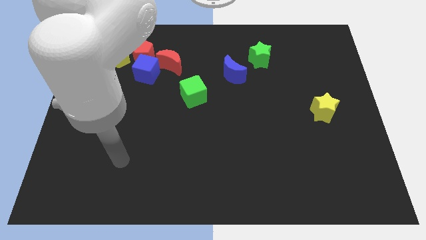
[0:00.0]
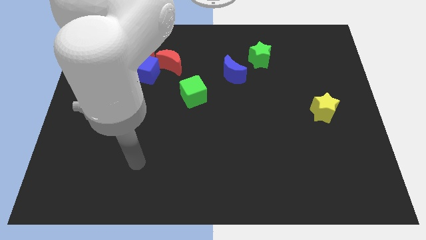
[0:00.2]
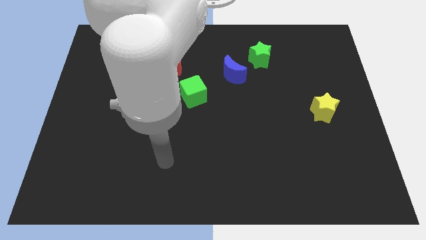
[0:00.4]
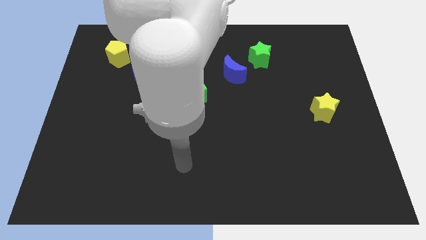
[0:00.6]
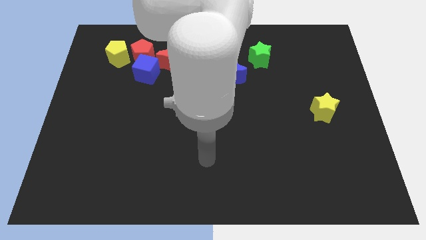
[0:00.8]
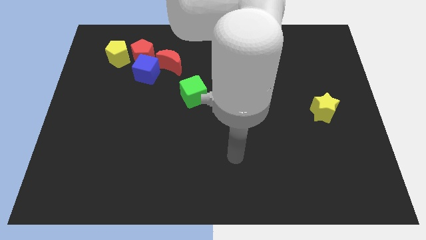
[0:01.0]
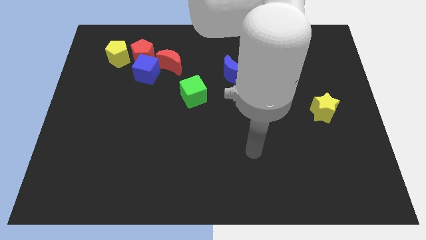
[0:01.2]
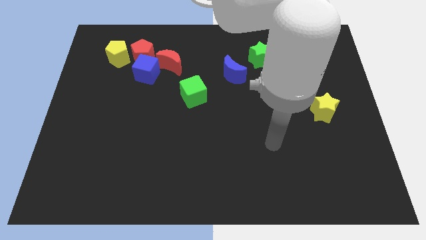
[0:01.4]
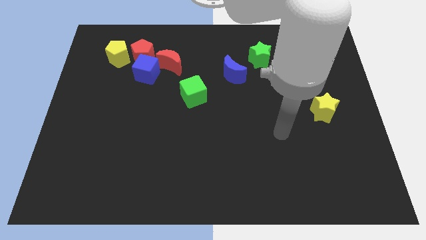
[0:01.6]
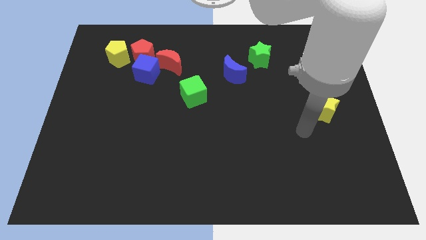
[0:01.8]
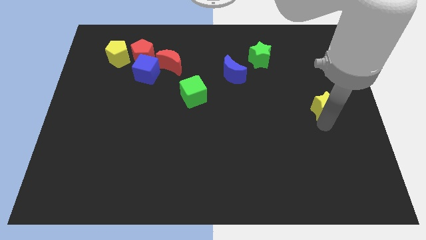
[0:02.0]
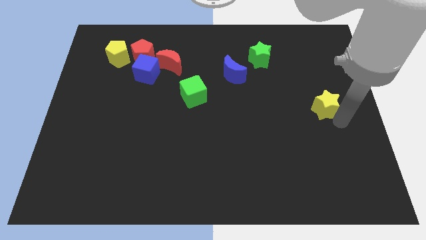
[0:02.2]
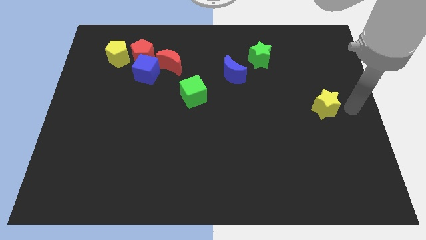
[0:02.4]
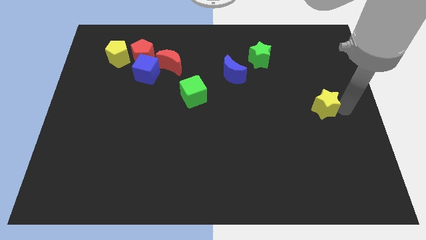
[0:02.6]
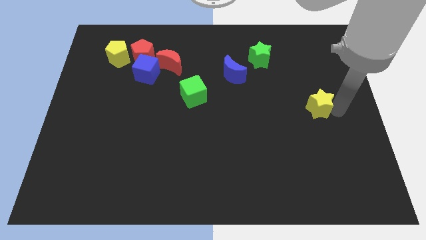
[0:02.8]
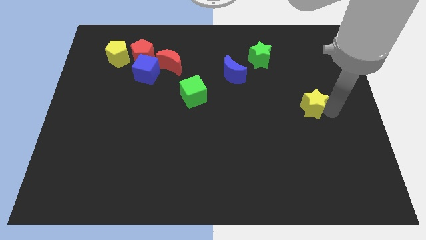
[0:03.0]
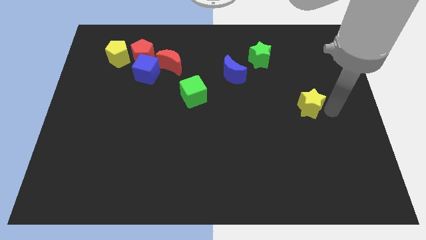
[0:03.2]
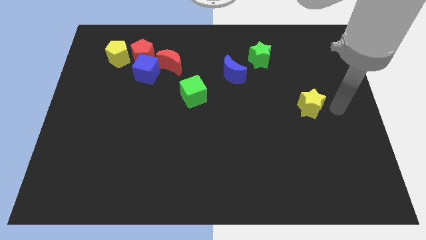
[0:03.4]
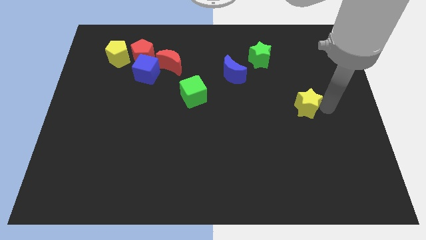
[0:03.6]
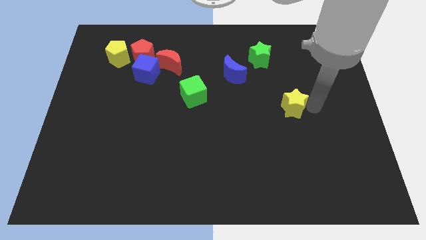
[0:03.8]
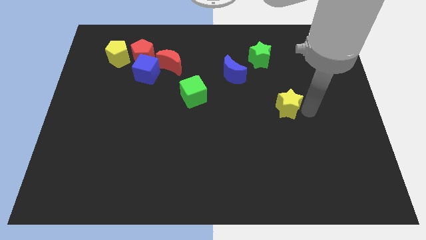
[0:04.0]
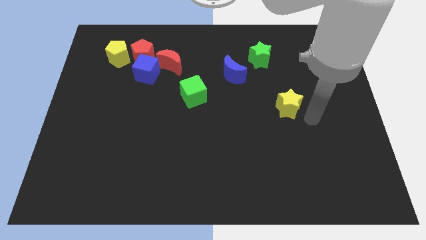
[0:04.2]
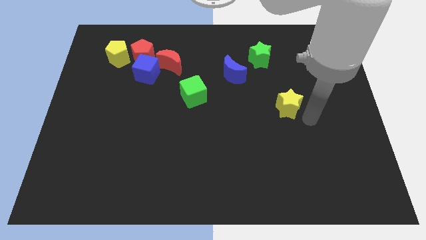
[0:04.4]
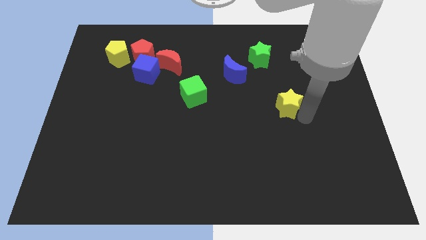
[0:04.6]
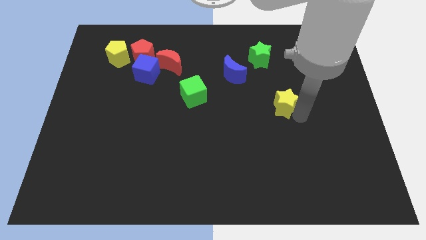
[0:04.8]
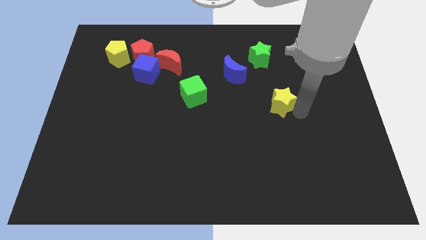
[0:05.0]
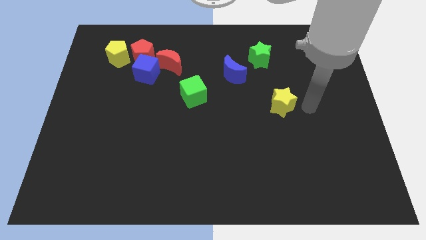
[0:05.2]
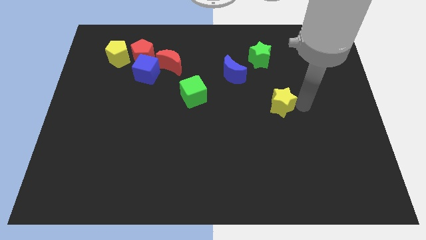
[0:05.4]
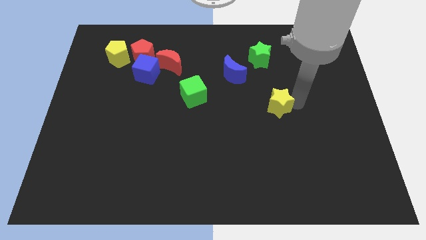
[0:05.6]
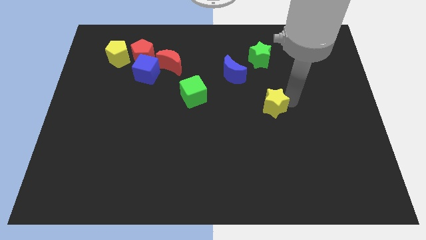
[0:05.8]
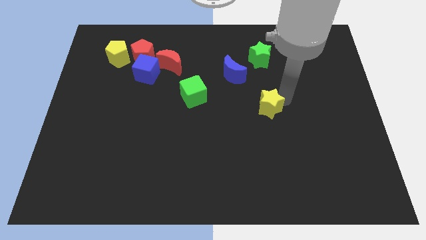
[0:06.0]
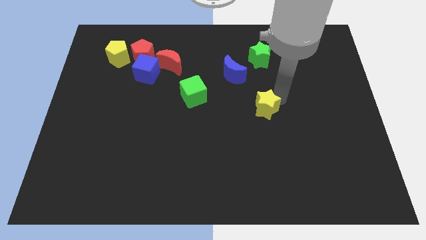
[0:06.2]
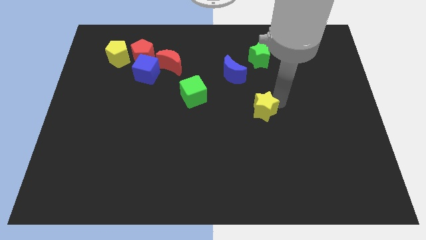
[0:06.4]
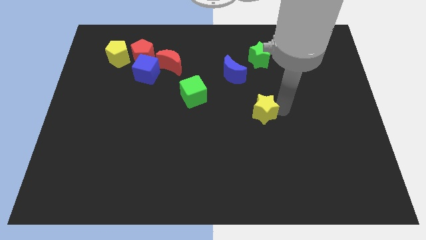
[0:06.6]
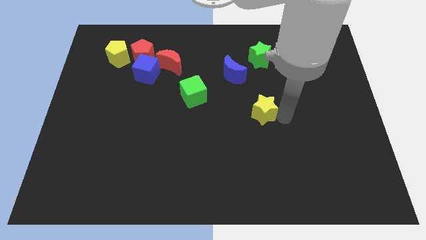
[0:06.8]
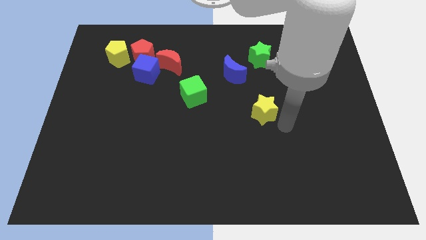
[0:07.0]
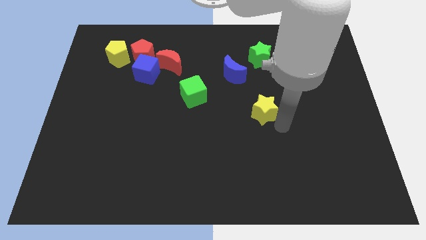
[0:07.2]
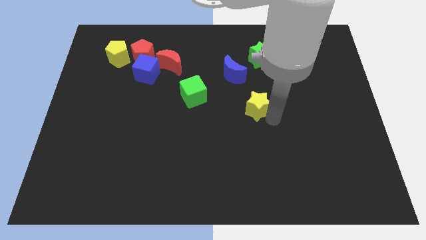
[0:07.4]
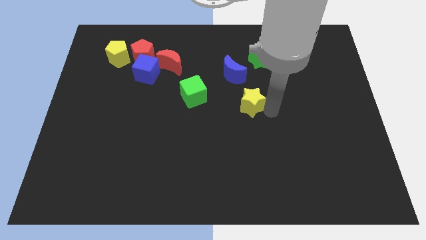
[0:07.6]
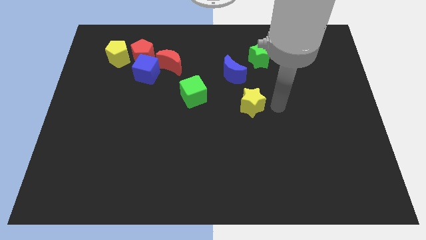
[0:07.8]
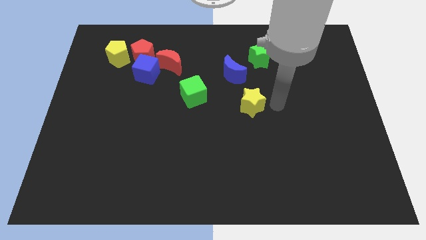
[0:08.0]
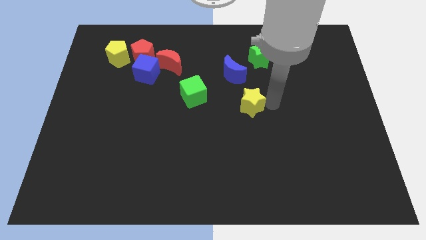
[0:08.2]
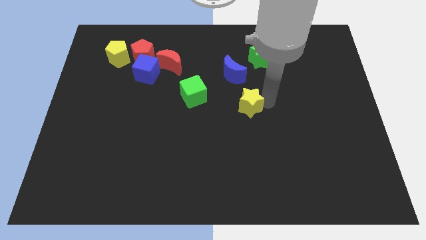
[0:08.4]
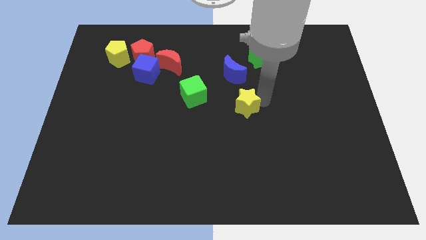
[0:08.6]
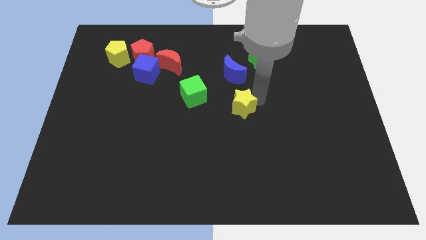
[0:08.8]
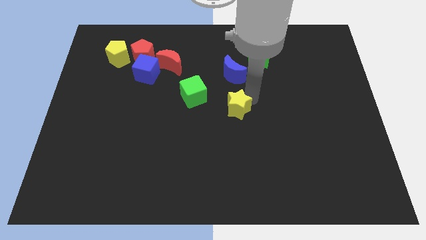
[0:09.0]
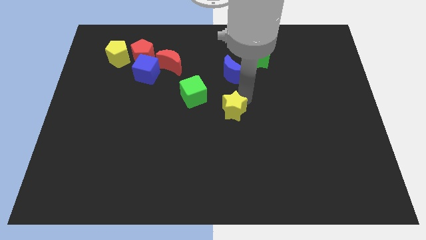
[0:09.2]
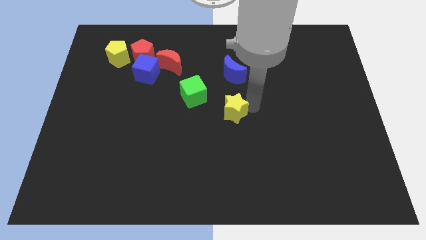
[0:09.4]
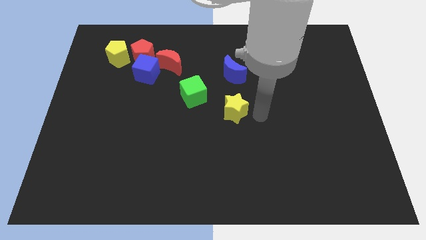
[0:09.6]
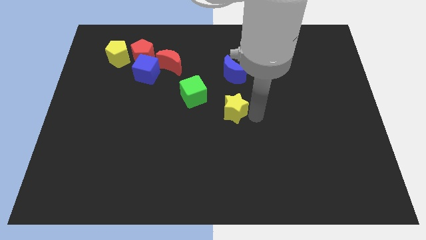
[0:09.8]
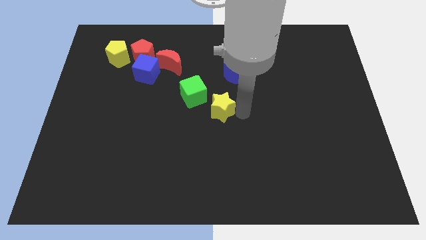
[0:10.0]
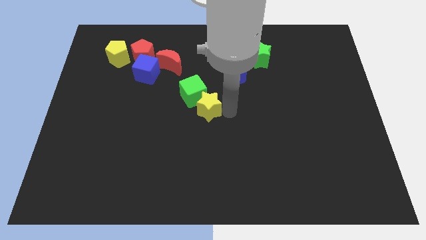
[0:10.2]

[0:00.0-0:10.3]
slide the yellow star next to the green cube

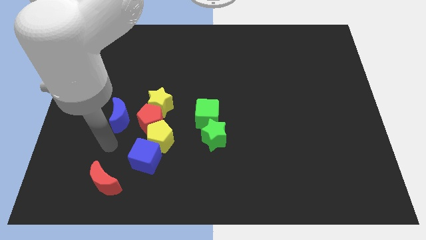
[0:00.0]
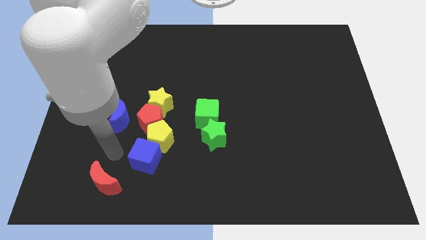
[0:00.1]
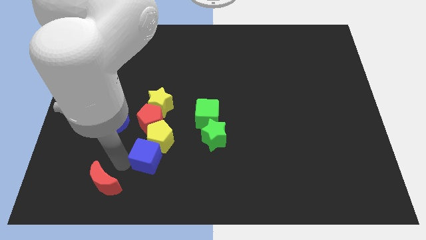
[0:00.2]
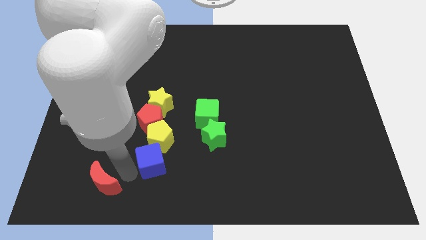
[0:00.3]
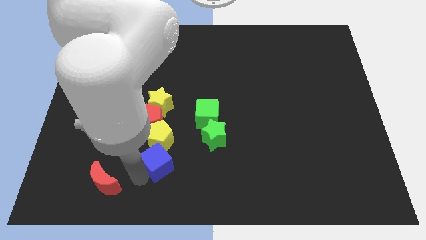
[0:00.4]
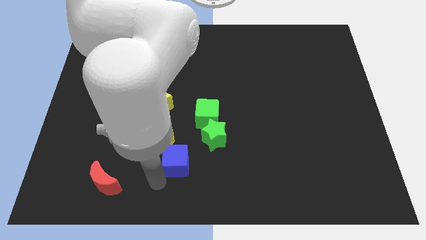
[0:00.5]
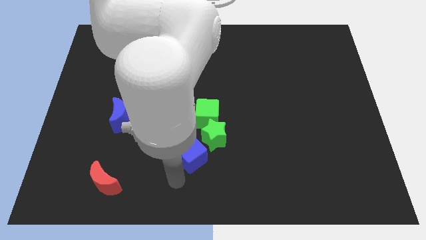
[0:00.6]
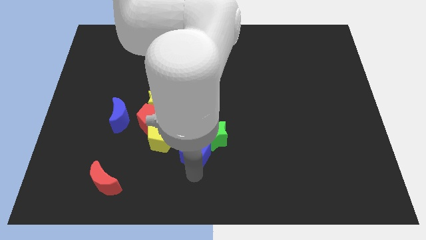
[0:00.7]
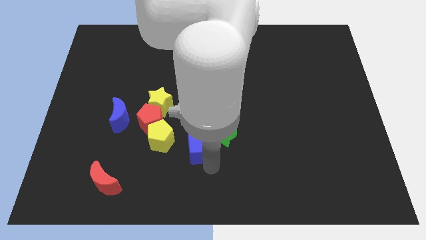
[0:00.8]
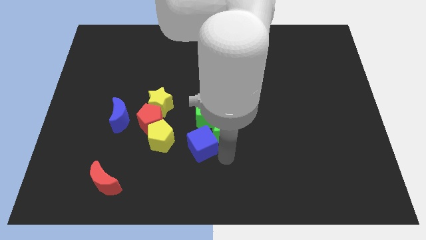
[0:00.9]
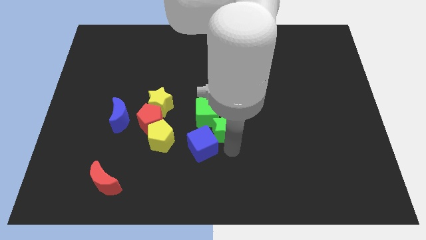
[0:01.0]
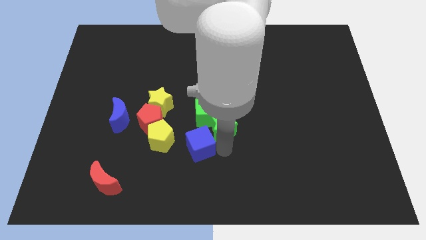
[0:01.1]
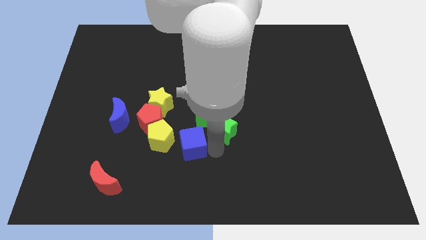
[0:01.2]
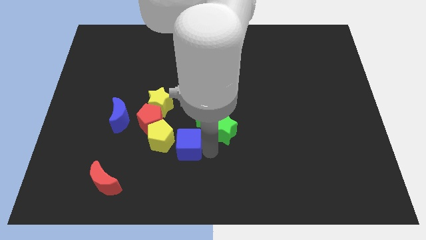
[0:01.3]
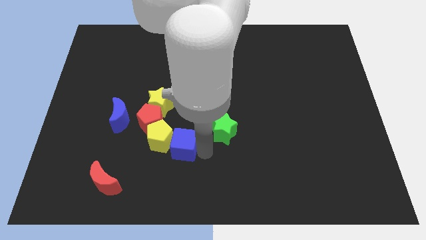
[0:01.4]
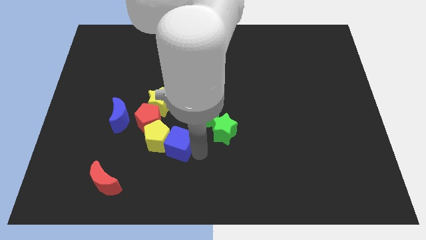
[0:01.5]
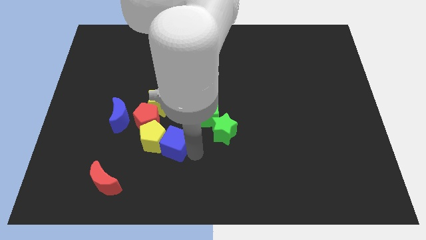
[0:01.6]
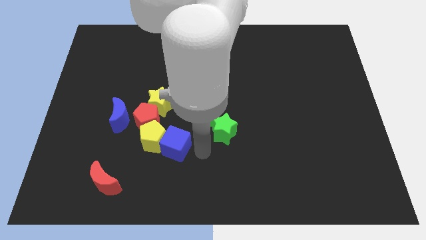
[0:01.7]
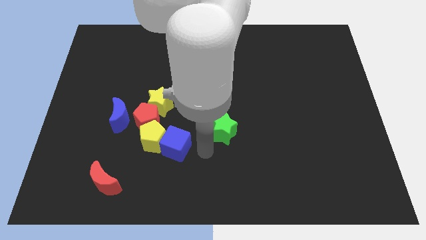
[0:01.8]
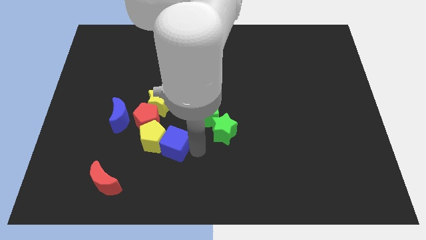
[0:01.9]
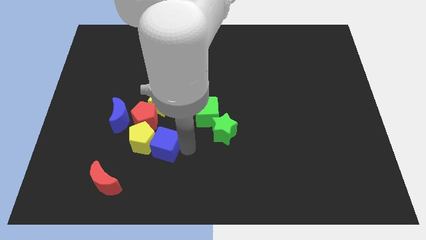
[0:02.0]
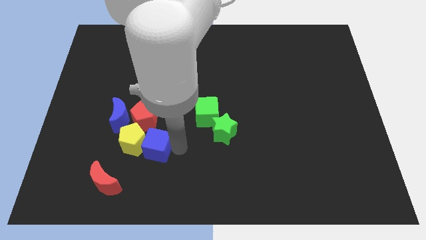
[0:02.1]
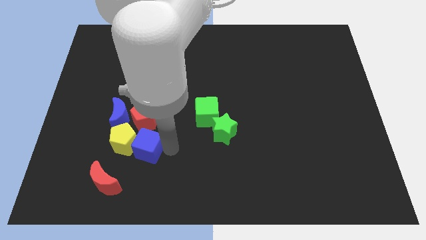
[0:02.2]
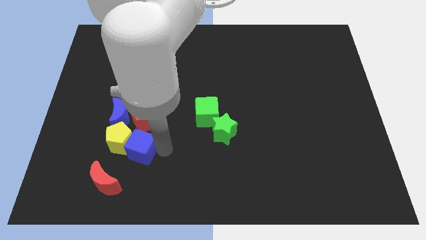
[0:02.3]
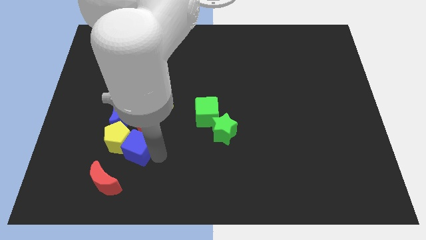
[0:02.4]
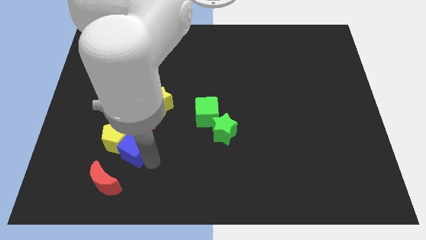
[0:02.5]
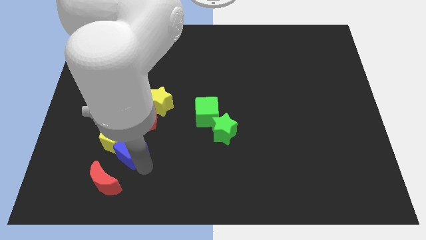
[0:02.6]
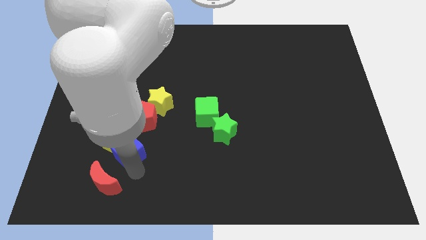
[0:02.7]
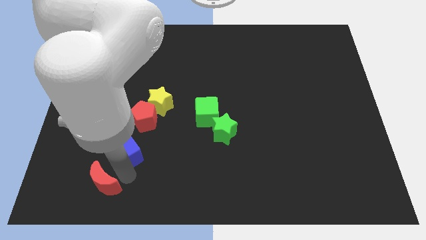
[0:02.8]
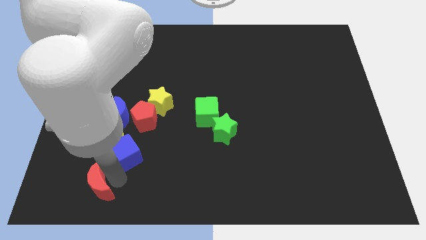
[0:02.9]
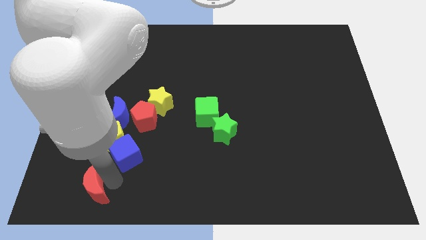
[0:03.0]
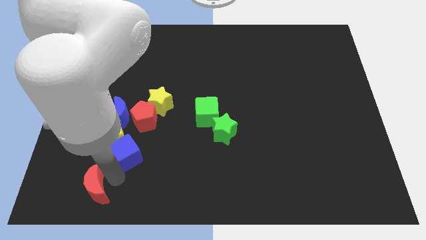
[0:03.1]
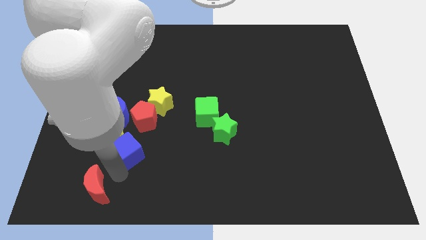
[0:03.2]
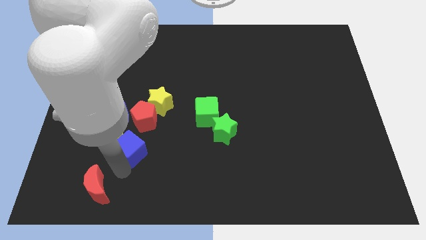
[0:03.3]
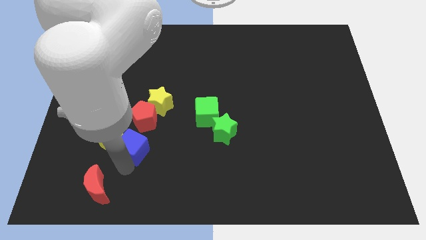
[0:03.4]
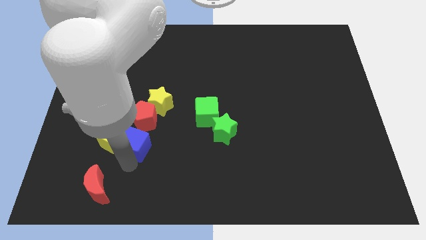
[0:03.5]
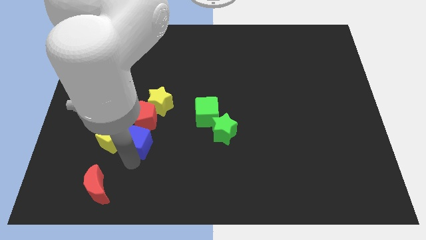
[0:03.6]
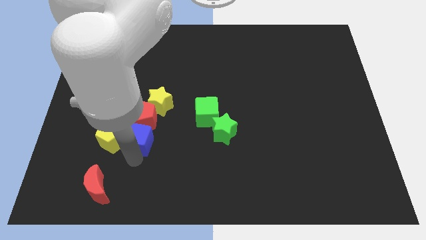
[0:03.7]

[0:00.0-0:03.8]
put the blue cube close to the red pentagon
